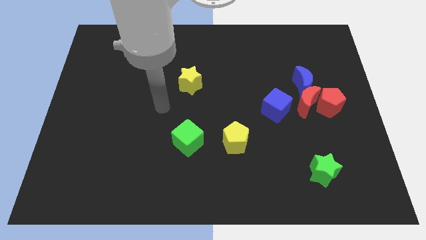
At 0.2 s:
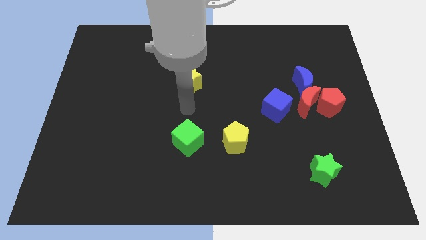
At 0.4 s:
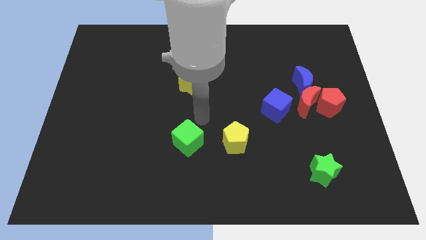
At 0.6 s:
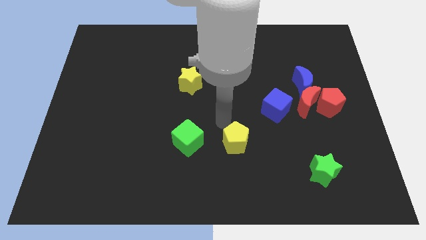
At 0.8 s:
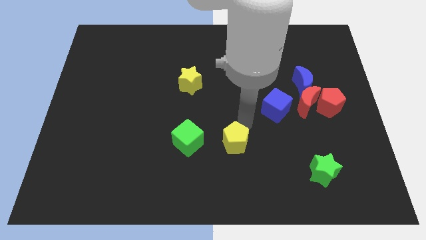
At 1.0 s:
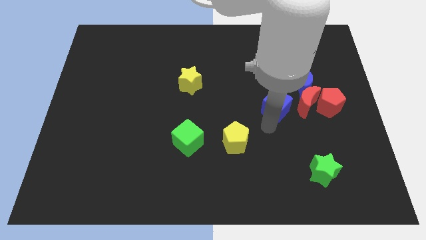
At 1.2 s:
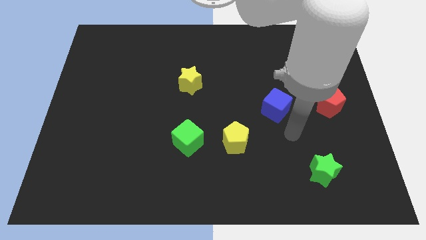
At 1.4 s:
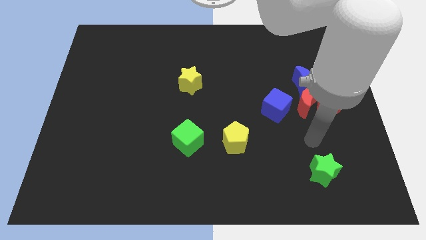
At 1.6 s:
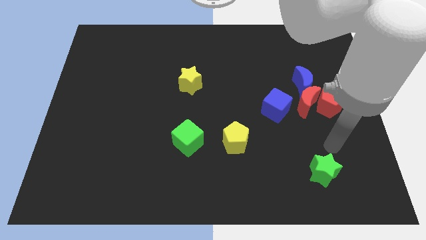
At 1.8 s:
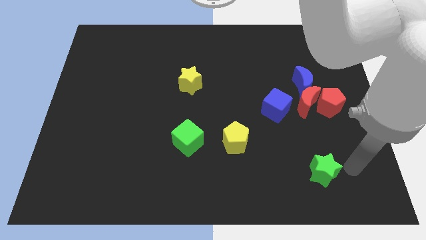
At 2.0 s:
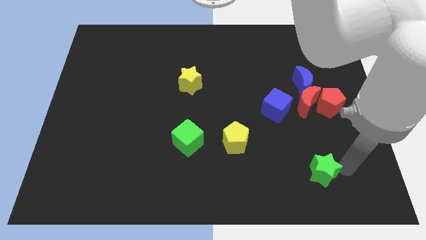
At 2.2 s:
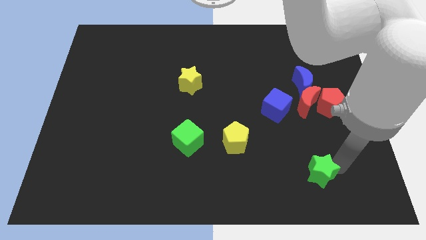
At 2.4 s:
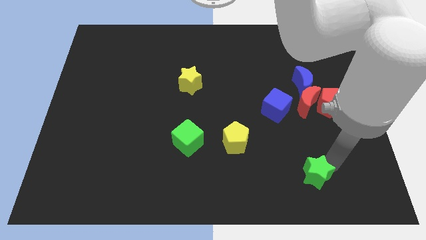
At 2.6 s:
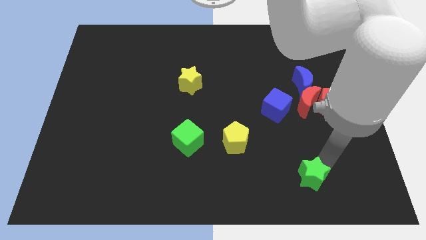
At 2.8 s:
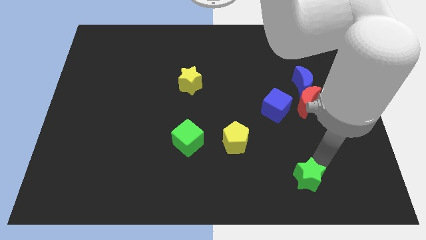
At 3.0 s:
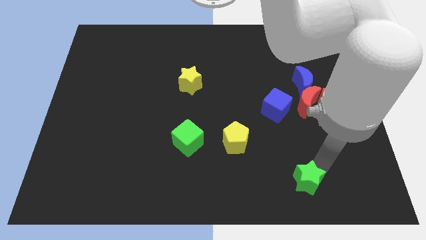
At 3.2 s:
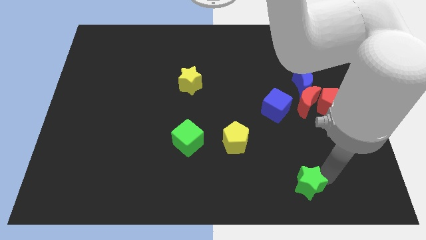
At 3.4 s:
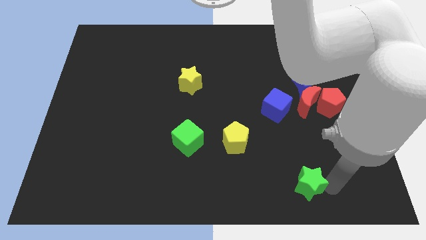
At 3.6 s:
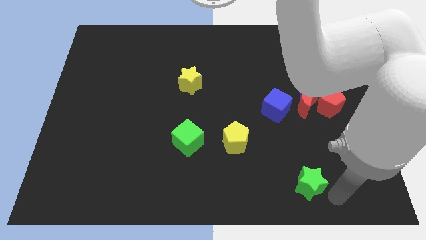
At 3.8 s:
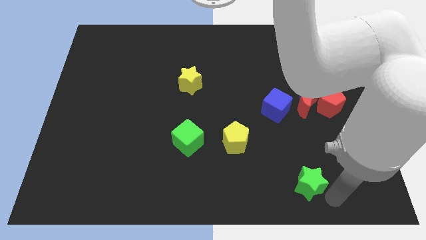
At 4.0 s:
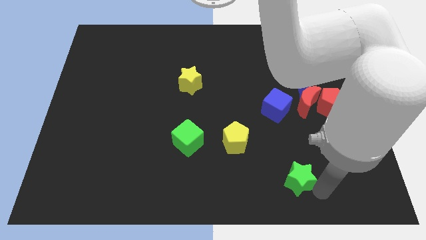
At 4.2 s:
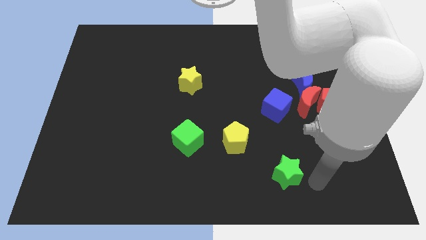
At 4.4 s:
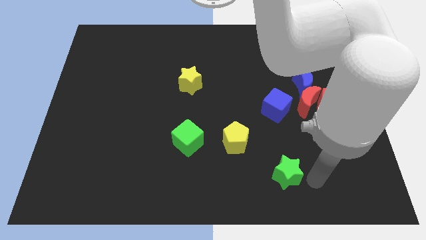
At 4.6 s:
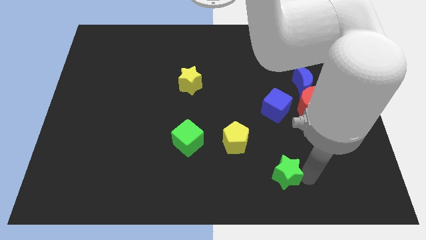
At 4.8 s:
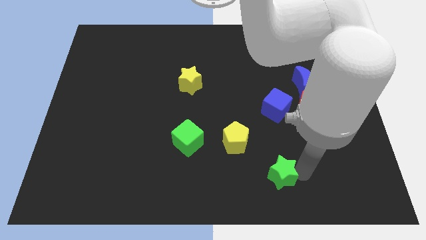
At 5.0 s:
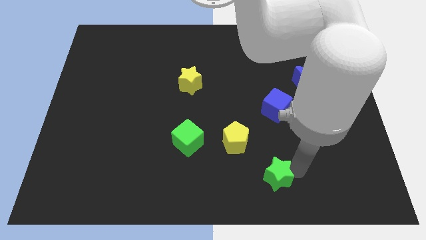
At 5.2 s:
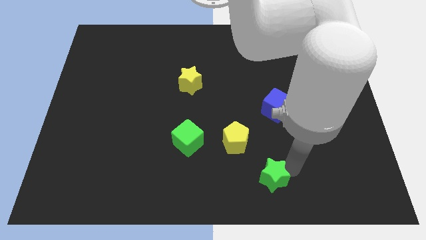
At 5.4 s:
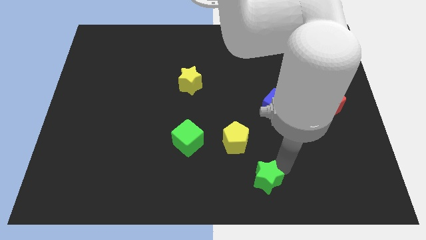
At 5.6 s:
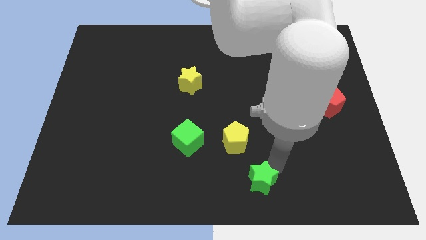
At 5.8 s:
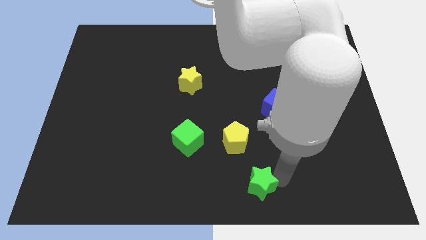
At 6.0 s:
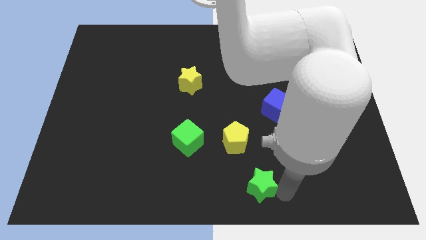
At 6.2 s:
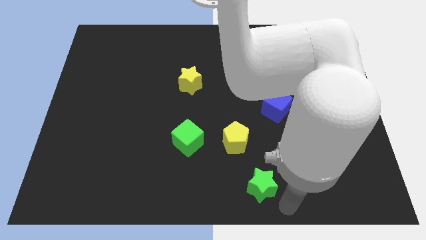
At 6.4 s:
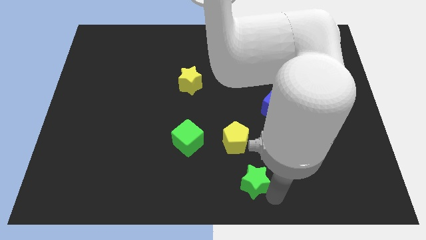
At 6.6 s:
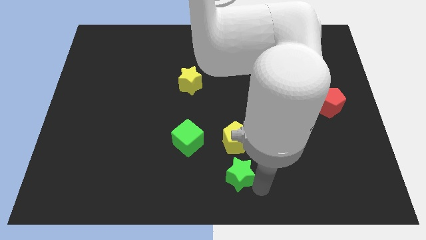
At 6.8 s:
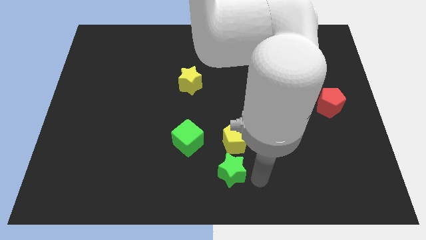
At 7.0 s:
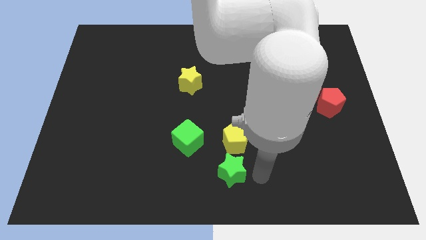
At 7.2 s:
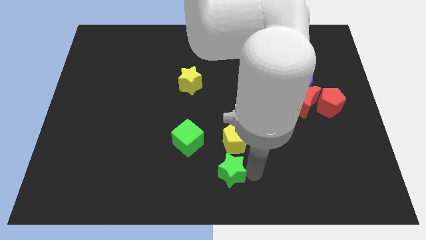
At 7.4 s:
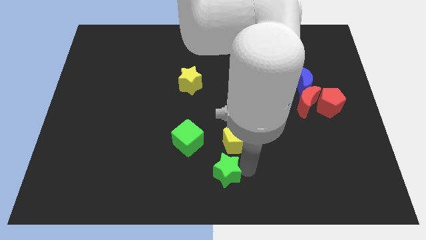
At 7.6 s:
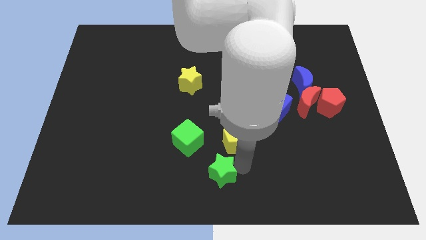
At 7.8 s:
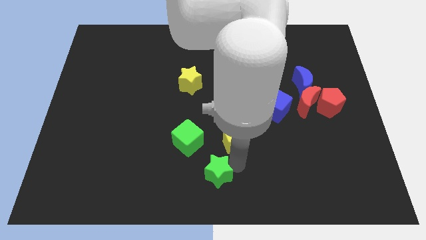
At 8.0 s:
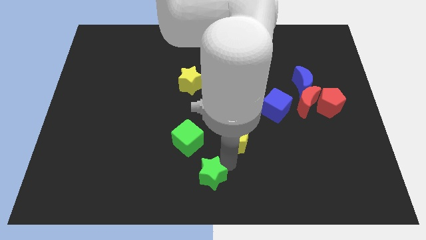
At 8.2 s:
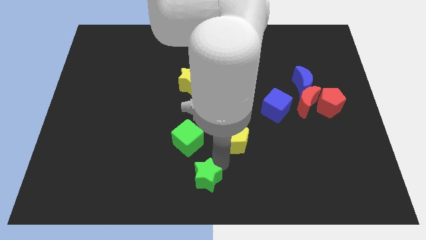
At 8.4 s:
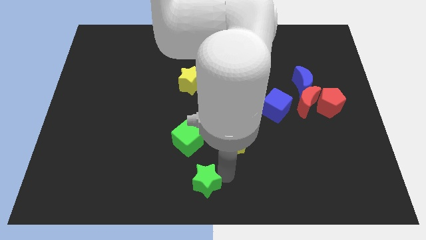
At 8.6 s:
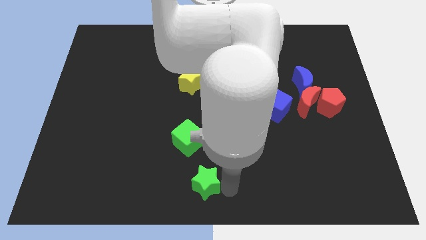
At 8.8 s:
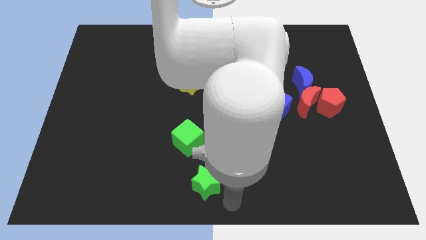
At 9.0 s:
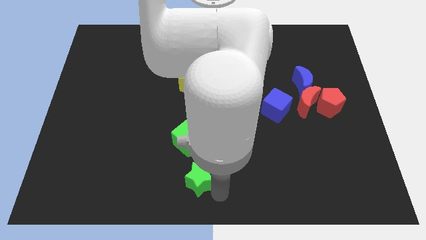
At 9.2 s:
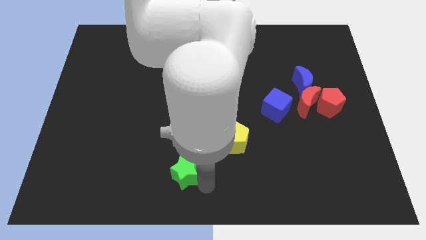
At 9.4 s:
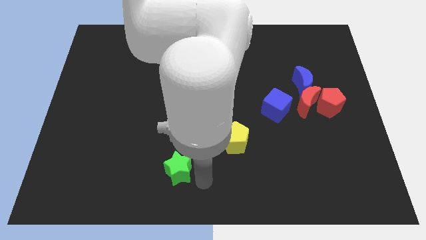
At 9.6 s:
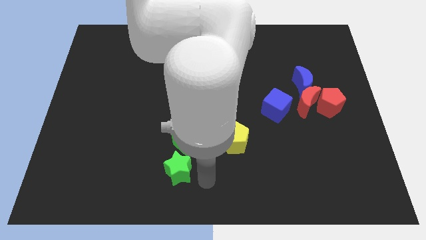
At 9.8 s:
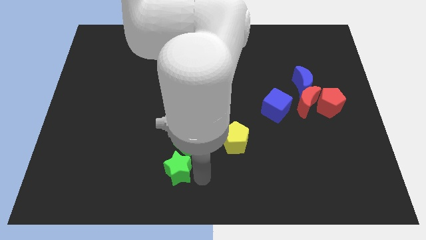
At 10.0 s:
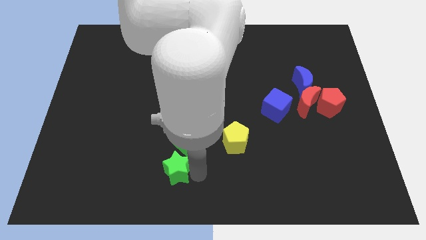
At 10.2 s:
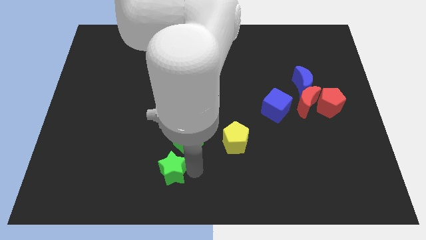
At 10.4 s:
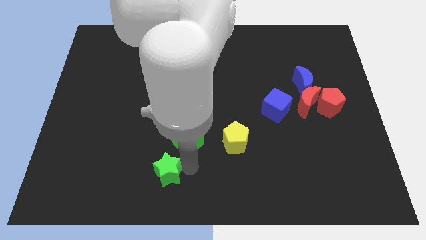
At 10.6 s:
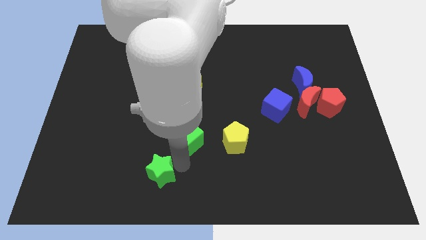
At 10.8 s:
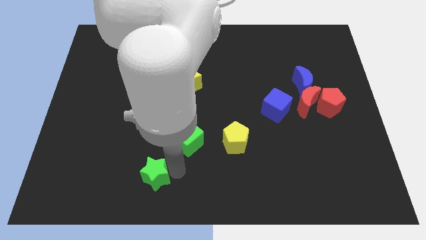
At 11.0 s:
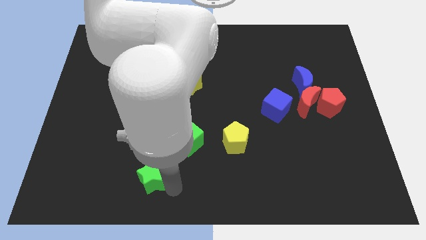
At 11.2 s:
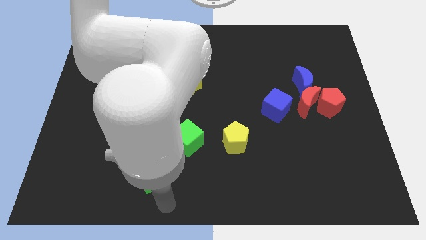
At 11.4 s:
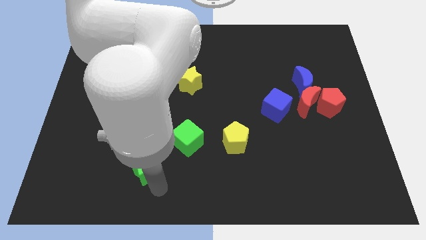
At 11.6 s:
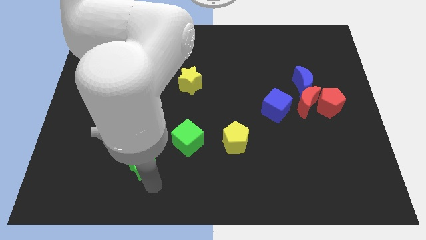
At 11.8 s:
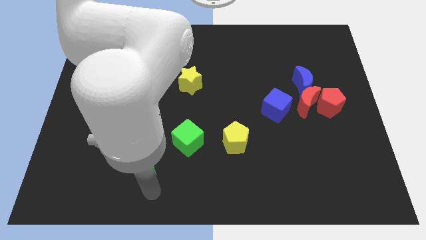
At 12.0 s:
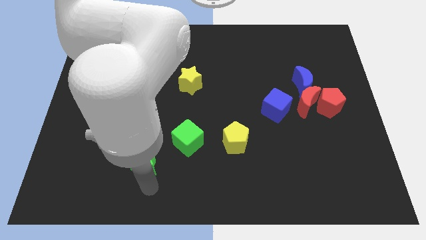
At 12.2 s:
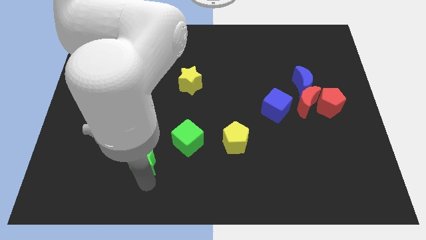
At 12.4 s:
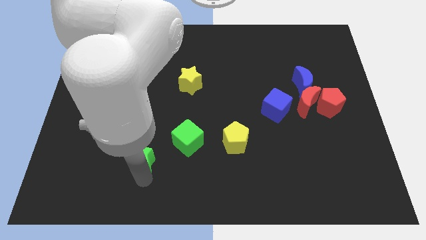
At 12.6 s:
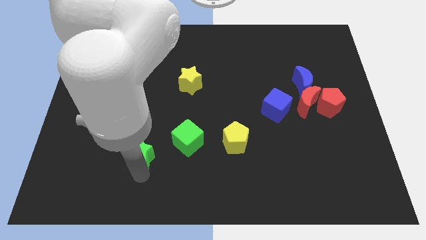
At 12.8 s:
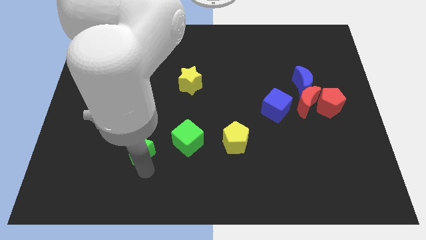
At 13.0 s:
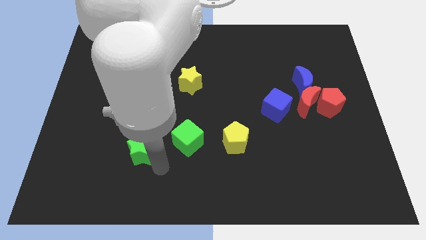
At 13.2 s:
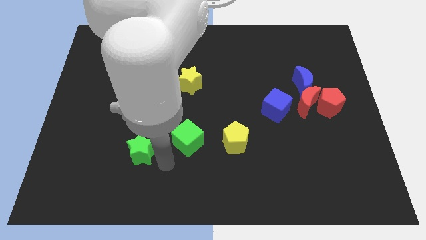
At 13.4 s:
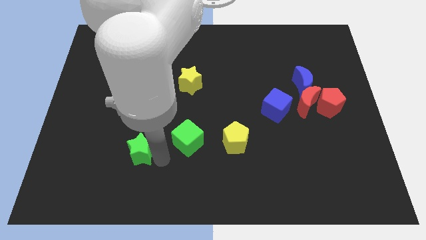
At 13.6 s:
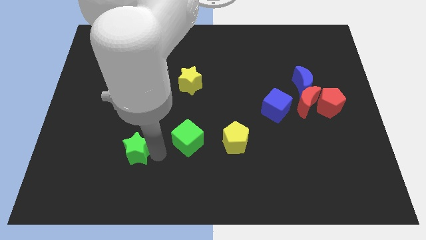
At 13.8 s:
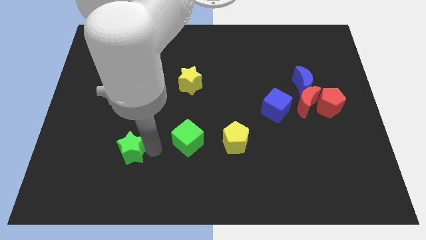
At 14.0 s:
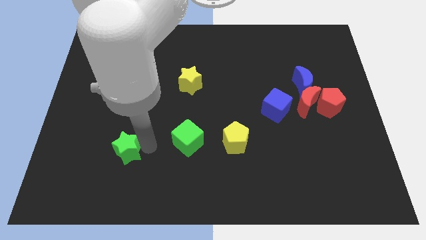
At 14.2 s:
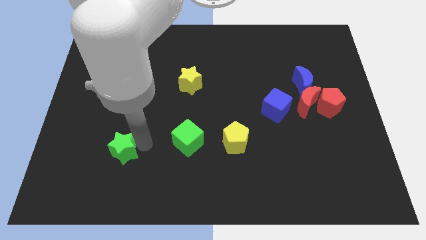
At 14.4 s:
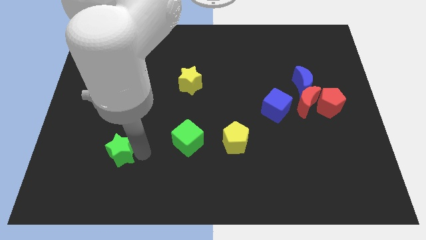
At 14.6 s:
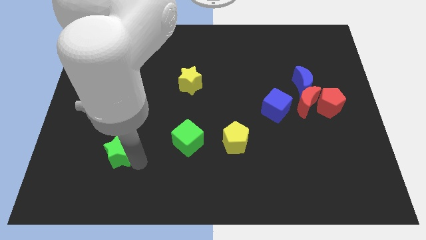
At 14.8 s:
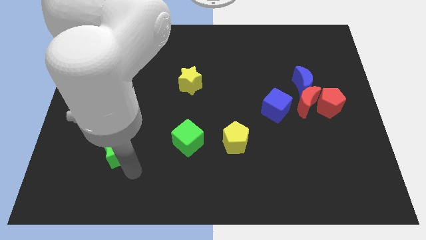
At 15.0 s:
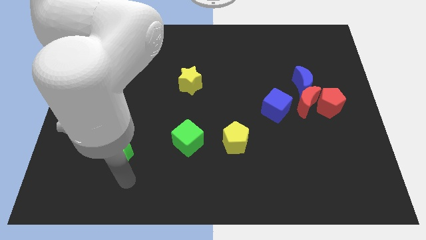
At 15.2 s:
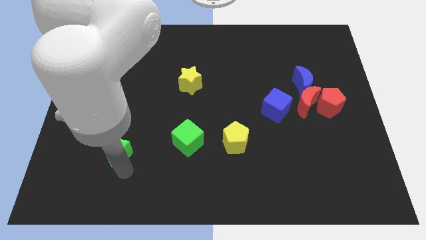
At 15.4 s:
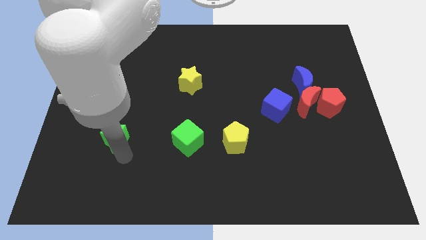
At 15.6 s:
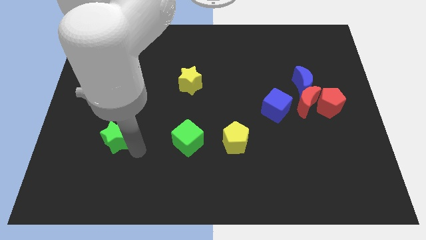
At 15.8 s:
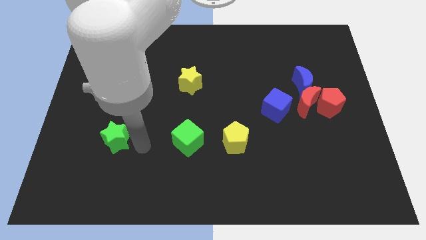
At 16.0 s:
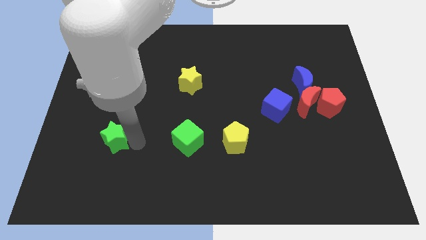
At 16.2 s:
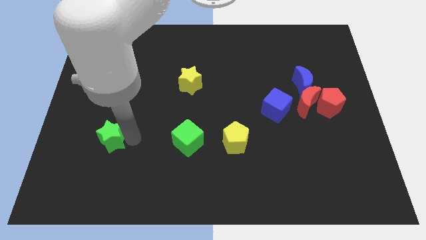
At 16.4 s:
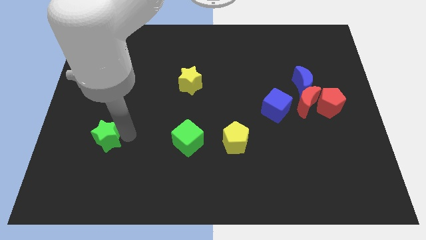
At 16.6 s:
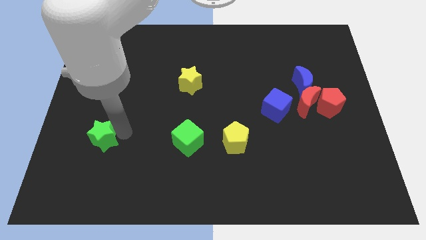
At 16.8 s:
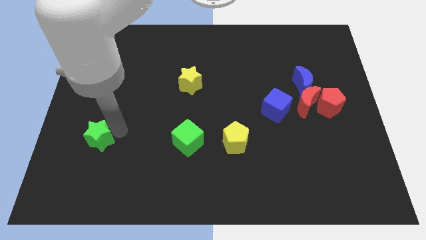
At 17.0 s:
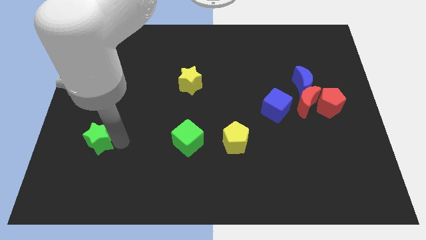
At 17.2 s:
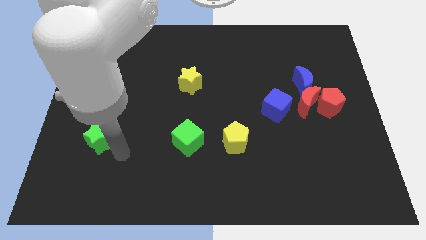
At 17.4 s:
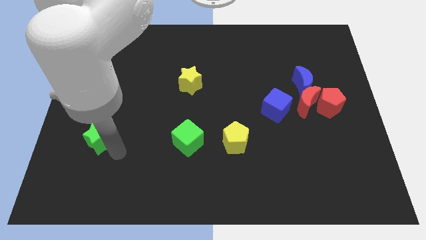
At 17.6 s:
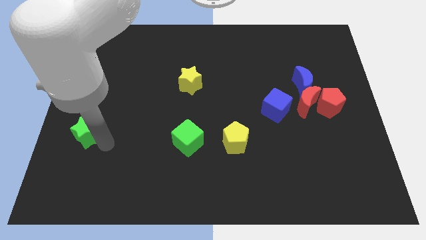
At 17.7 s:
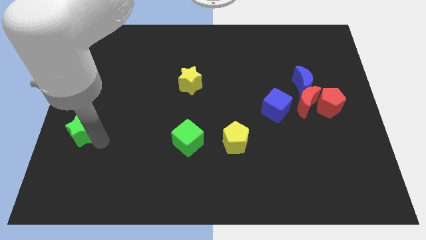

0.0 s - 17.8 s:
move the green star to the left side of the board
